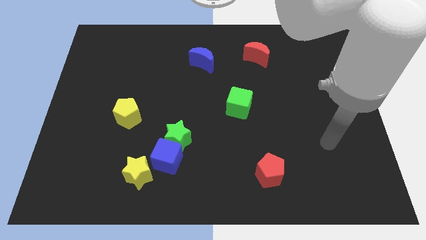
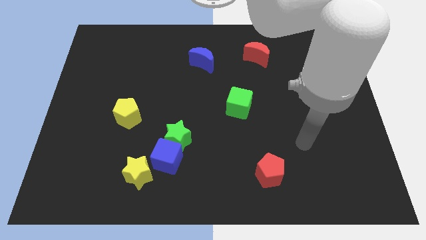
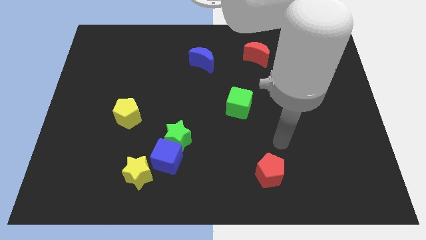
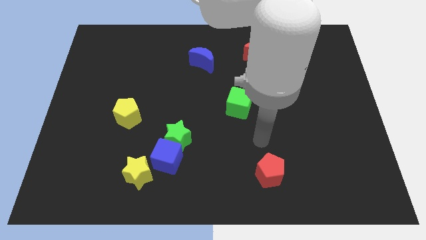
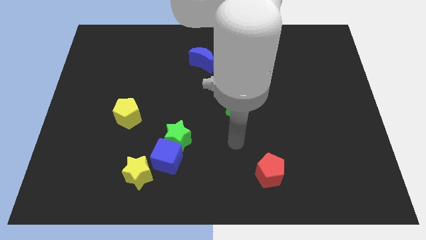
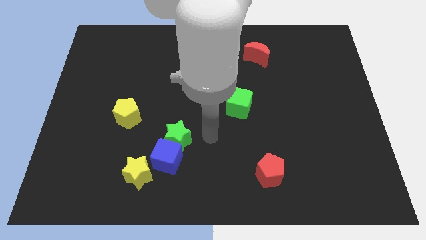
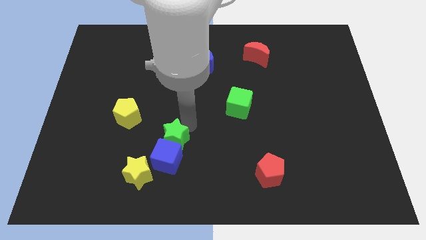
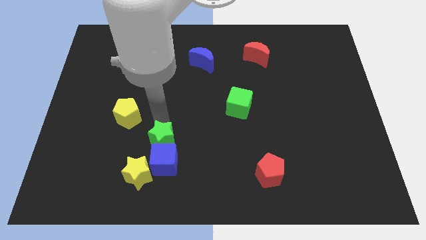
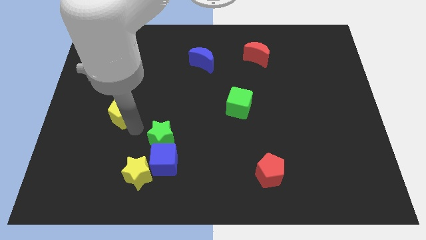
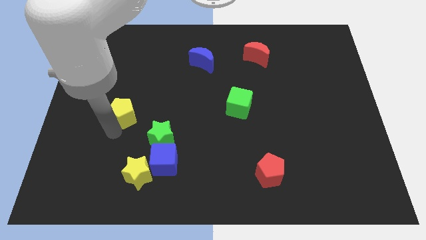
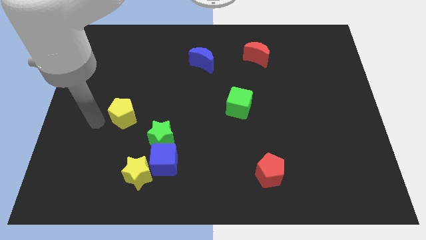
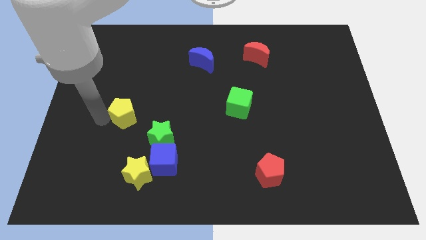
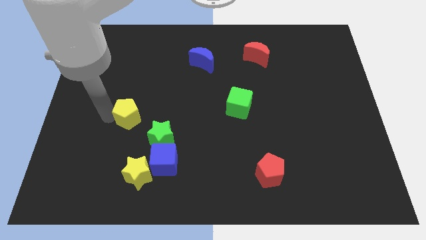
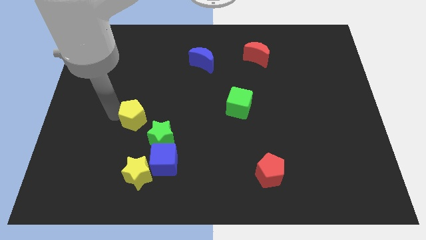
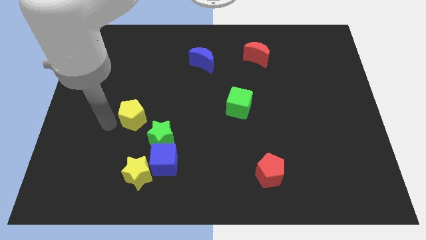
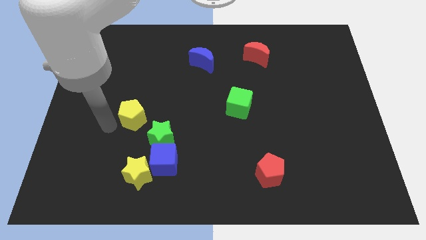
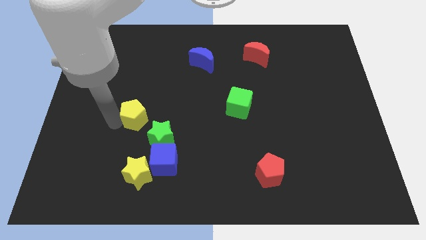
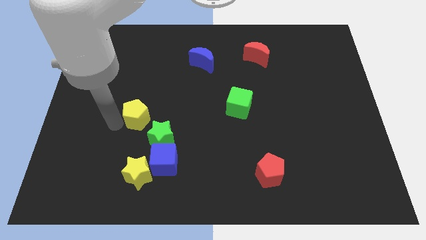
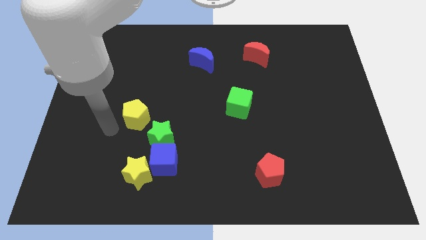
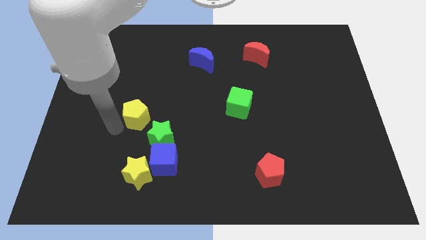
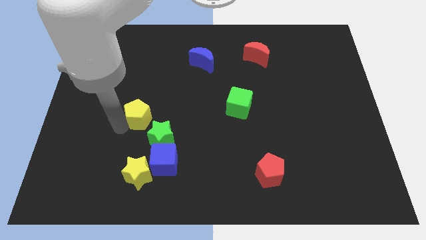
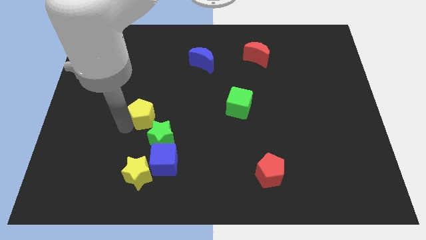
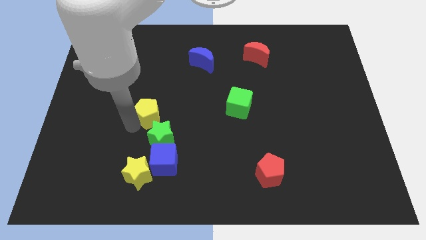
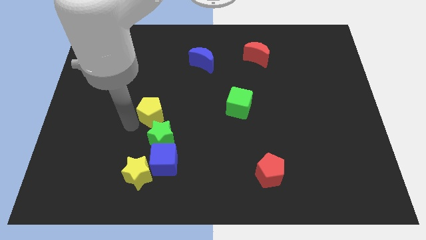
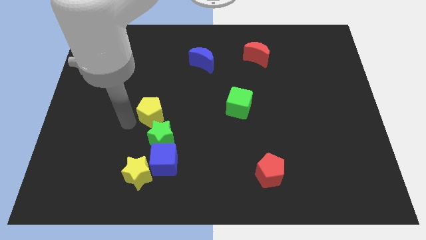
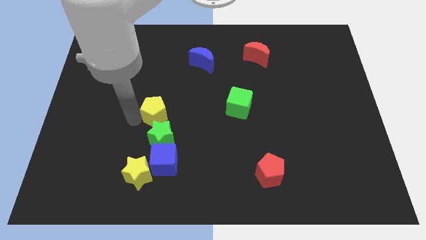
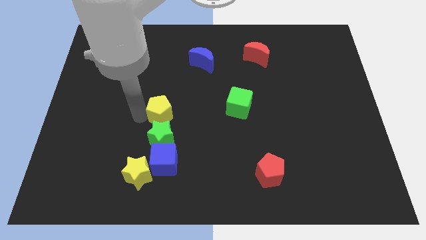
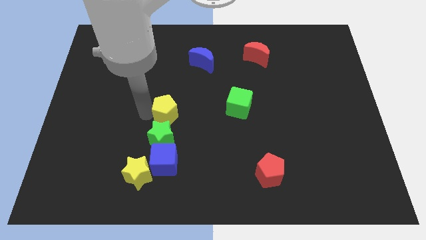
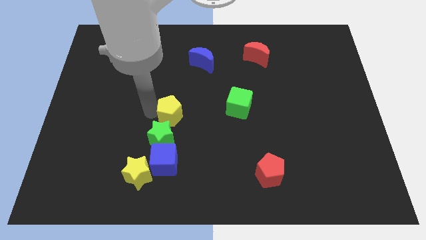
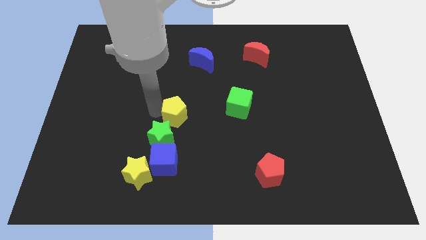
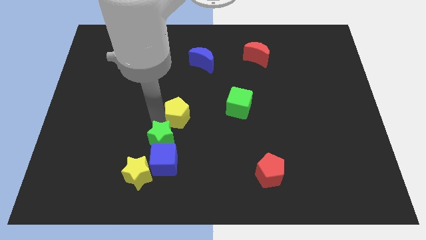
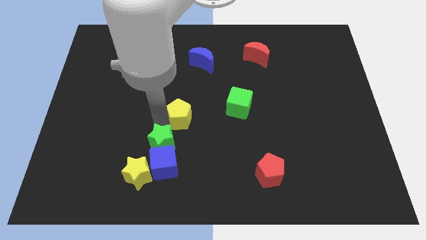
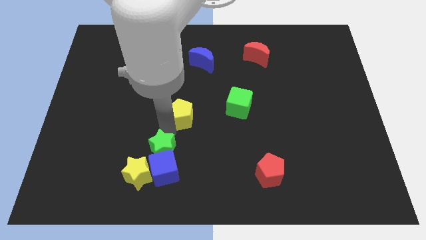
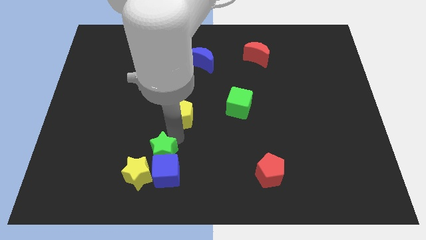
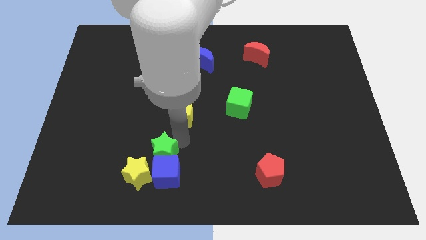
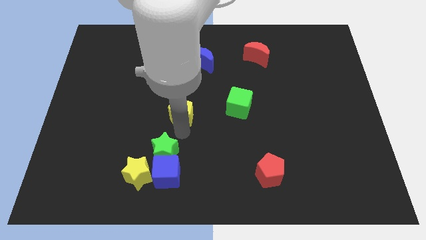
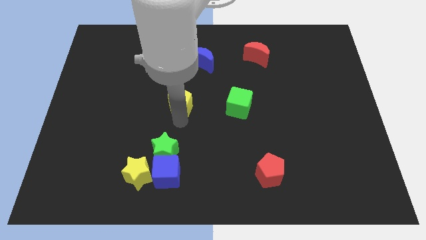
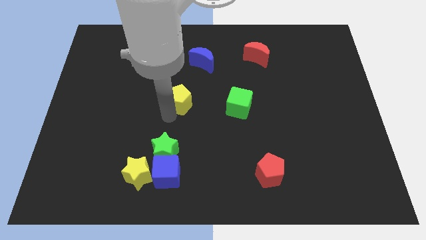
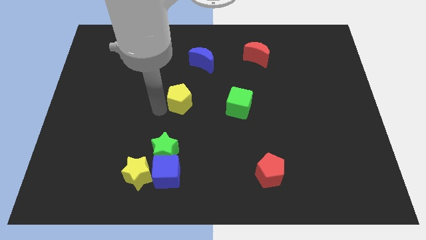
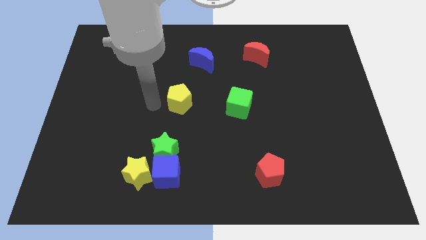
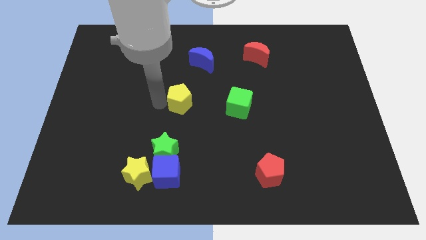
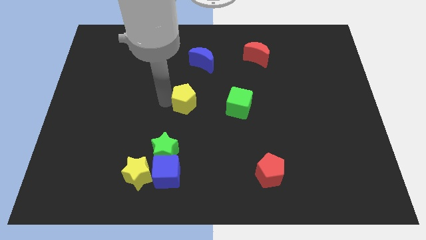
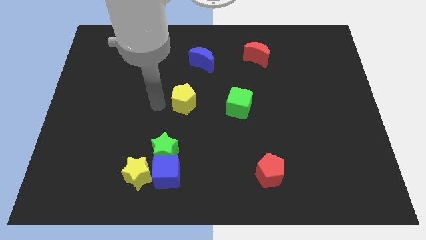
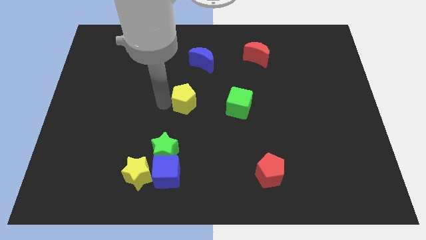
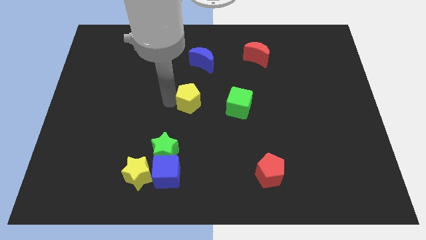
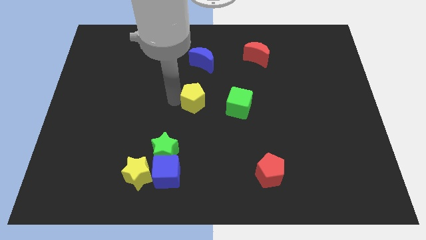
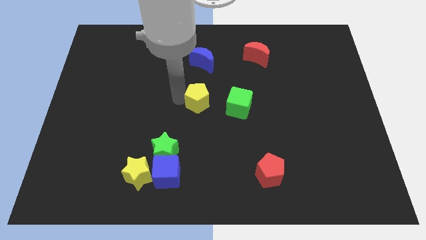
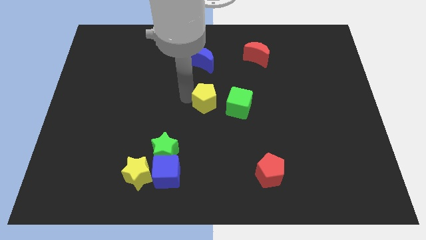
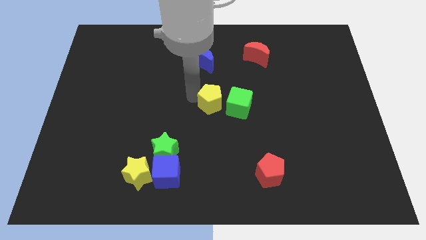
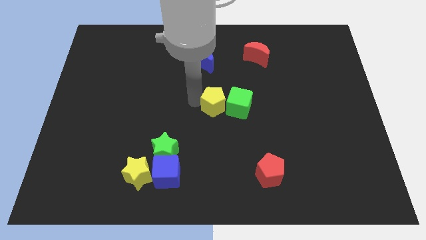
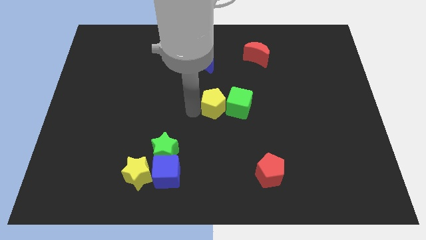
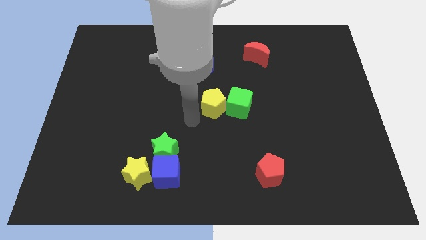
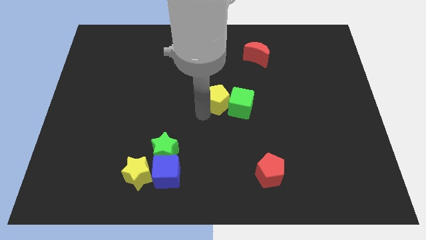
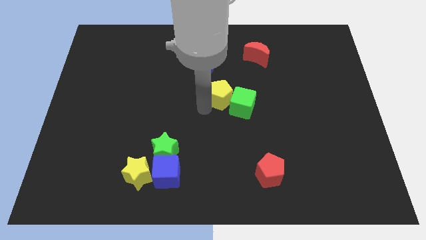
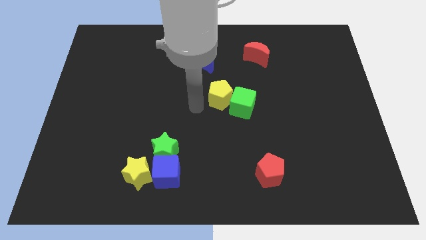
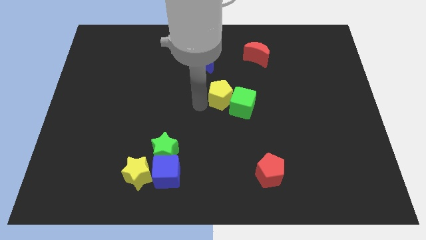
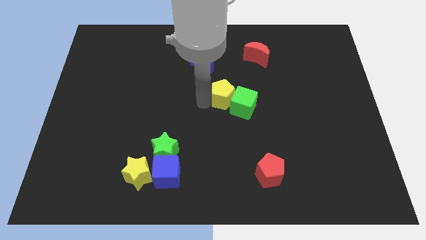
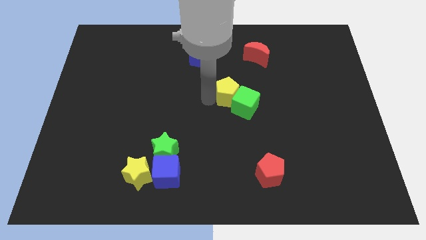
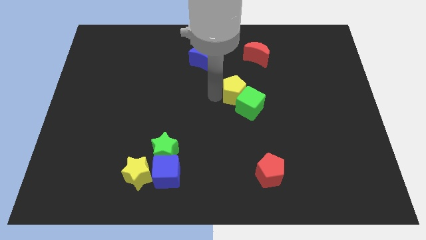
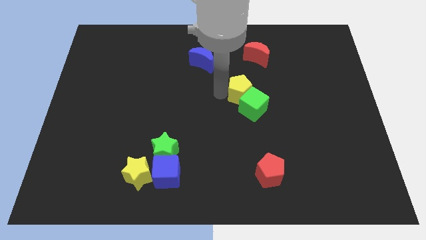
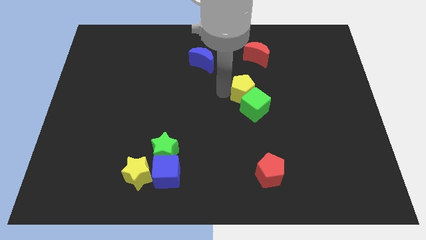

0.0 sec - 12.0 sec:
put the yellow pentagon to the bottom side of the red moon
